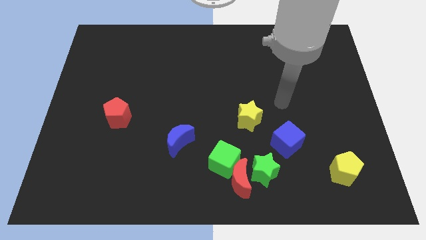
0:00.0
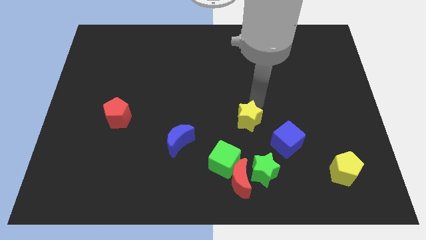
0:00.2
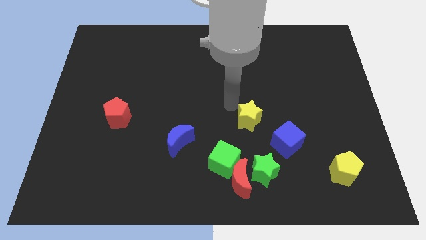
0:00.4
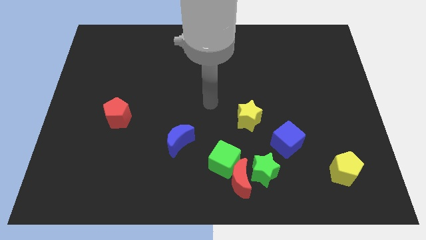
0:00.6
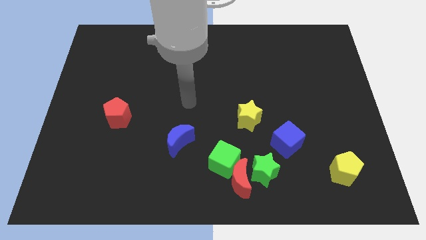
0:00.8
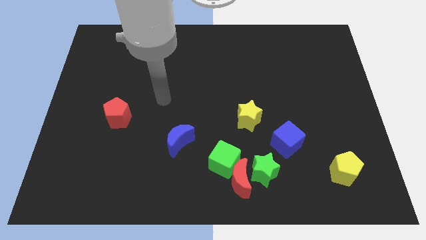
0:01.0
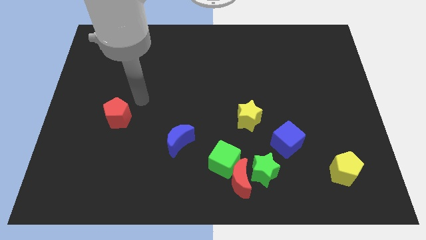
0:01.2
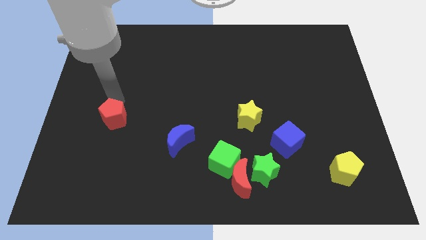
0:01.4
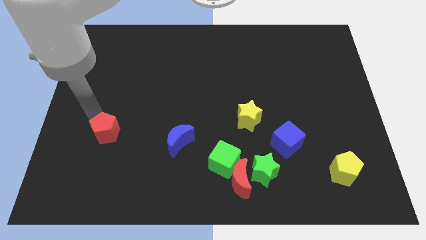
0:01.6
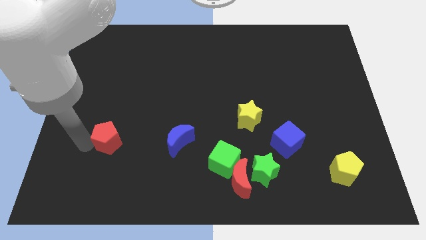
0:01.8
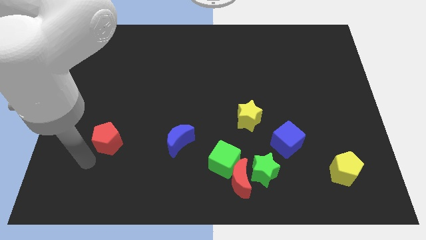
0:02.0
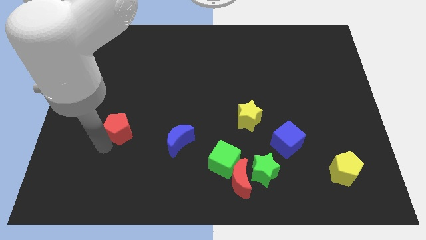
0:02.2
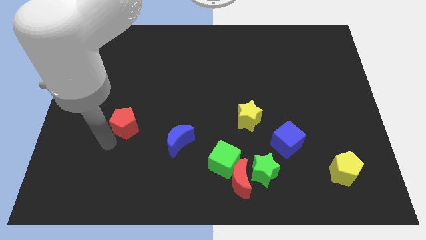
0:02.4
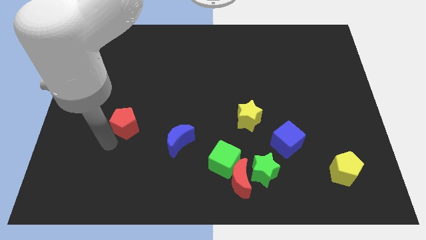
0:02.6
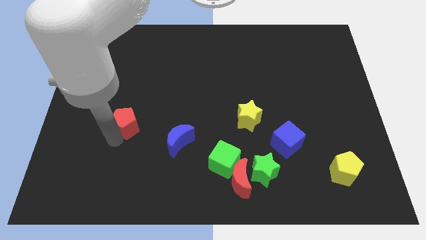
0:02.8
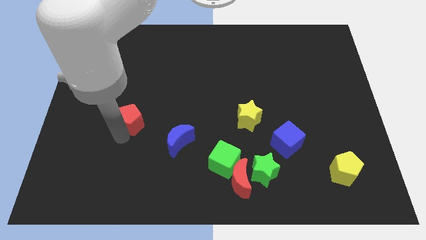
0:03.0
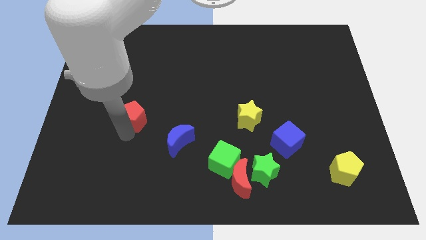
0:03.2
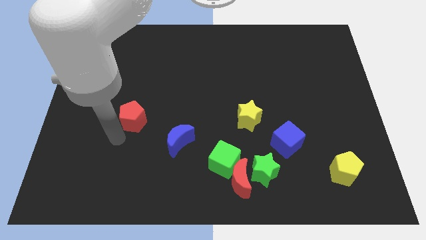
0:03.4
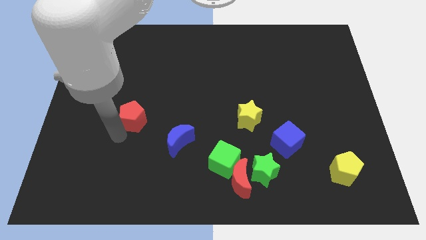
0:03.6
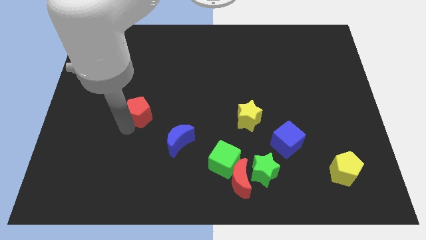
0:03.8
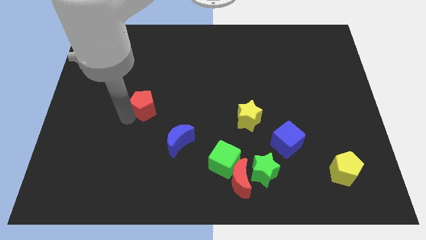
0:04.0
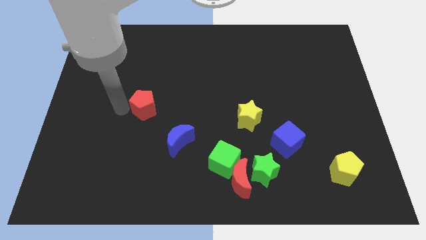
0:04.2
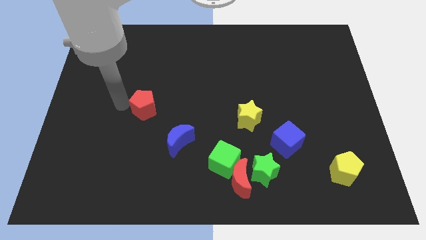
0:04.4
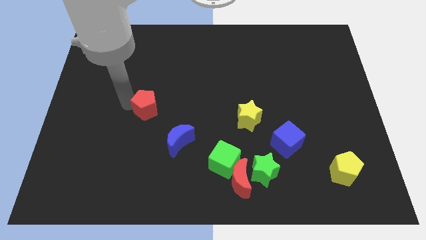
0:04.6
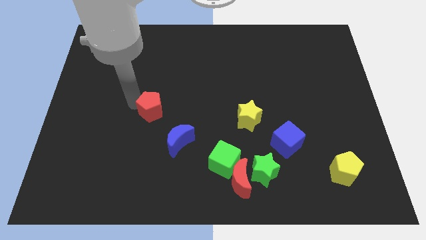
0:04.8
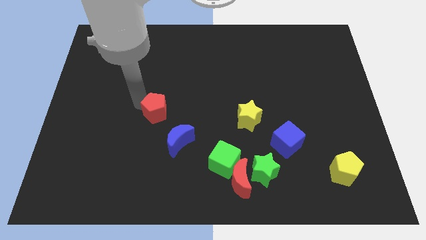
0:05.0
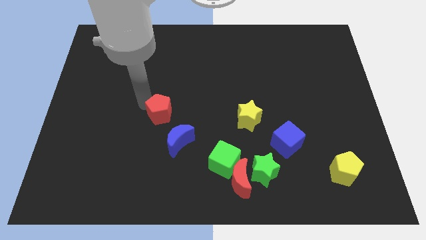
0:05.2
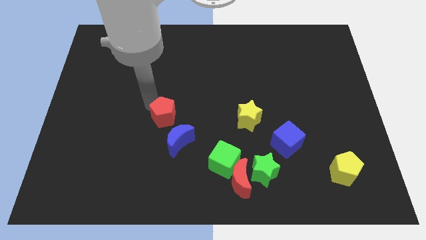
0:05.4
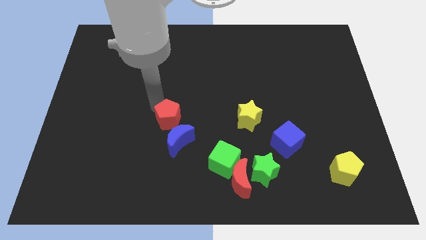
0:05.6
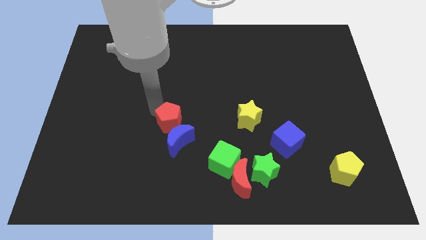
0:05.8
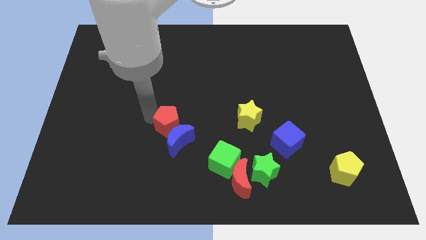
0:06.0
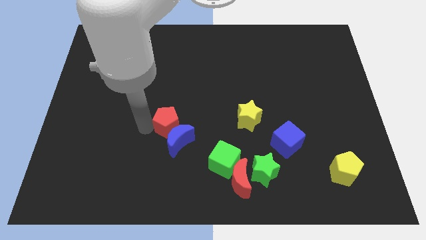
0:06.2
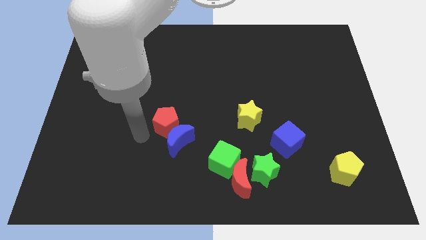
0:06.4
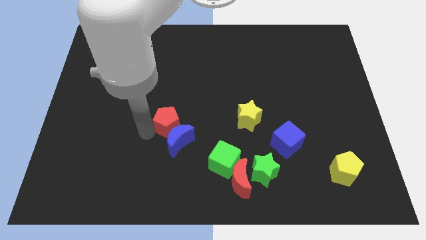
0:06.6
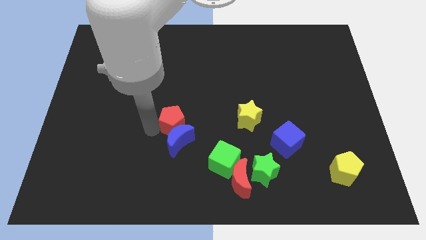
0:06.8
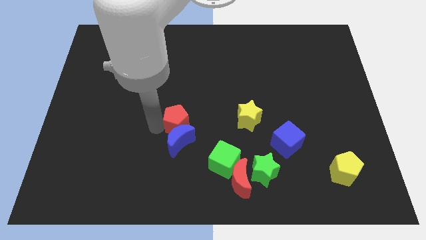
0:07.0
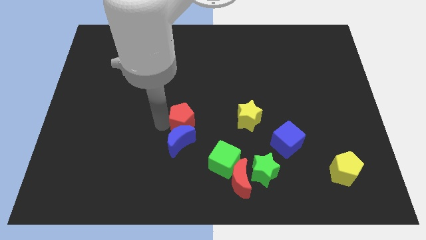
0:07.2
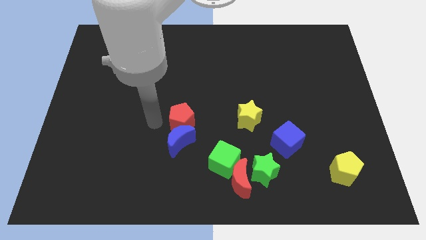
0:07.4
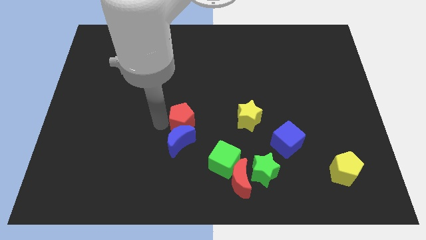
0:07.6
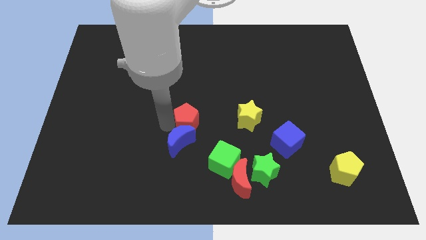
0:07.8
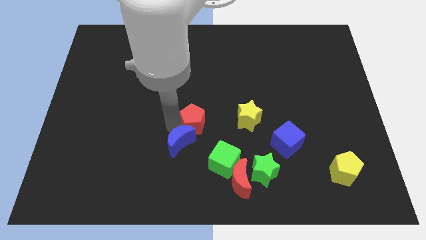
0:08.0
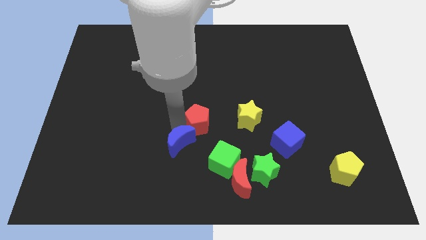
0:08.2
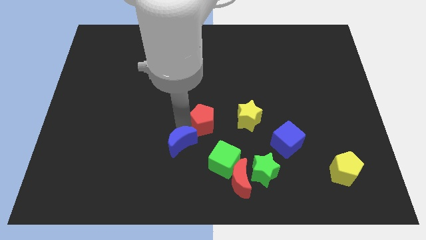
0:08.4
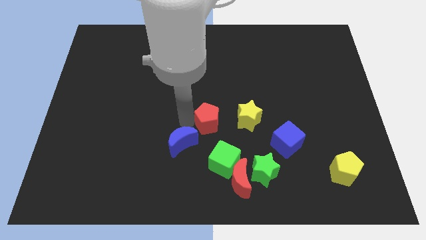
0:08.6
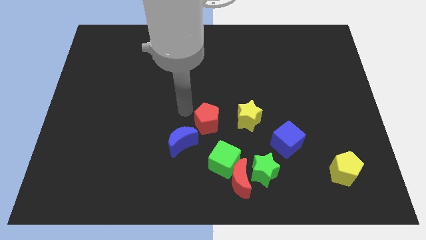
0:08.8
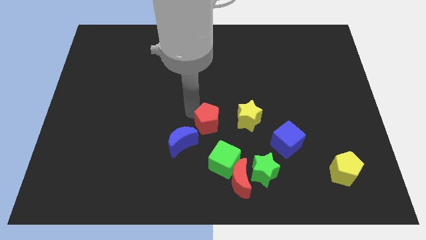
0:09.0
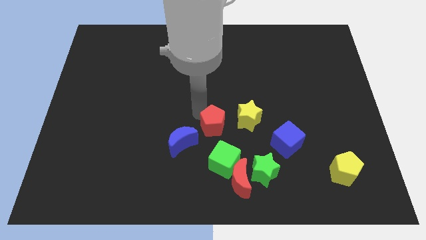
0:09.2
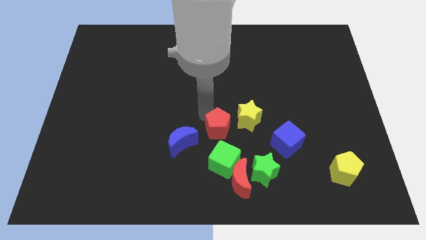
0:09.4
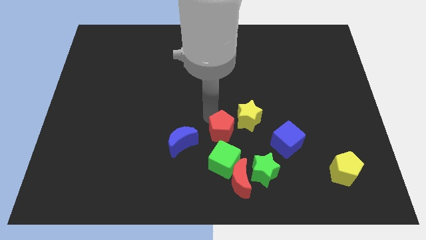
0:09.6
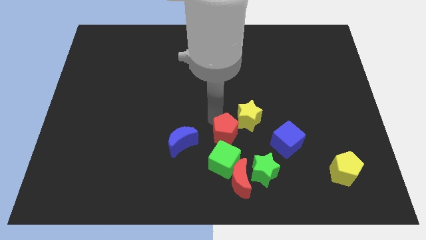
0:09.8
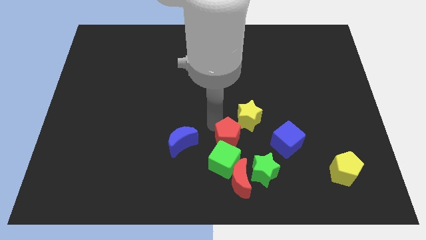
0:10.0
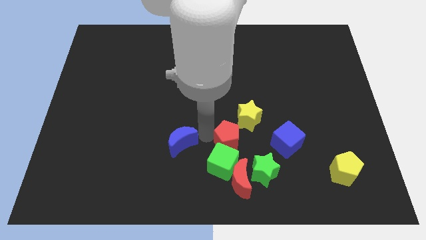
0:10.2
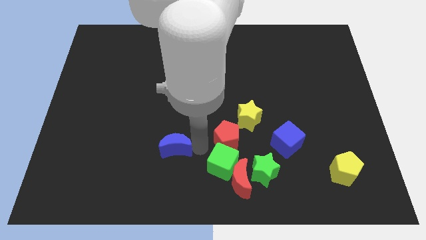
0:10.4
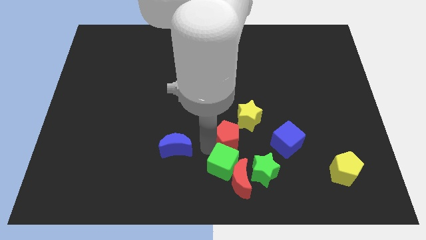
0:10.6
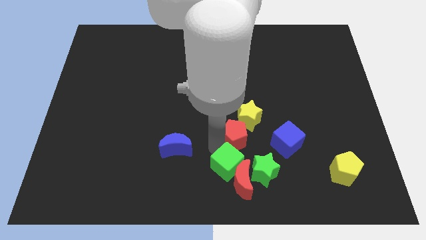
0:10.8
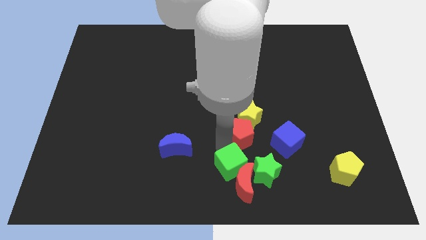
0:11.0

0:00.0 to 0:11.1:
slide the red pentagon to the top of the green star

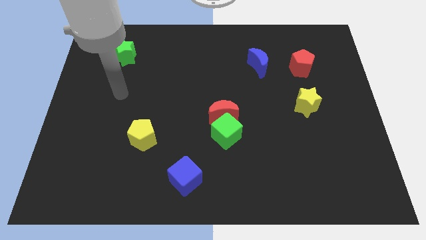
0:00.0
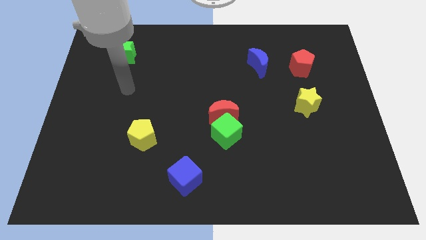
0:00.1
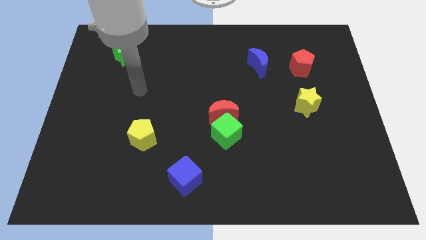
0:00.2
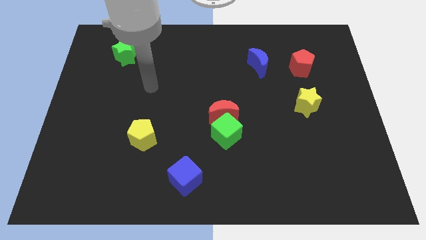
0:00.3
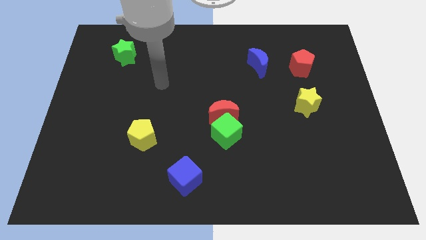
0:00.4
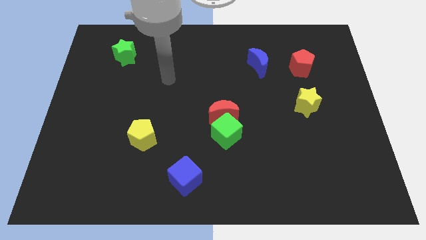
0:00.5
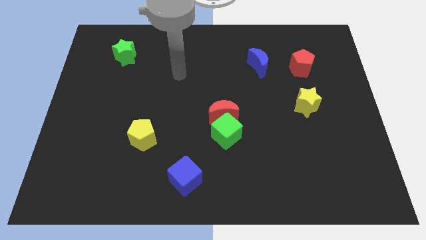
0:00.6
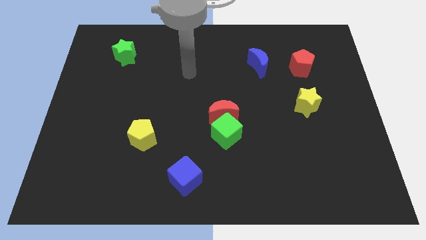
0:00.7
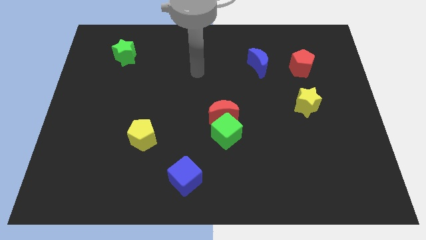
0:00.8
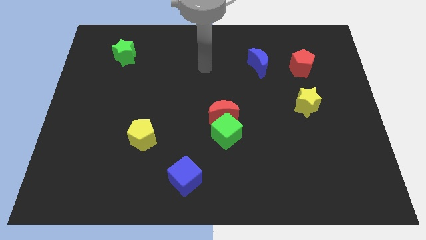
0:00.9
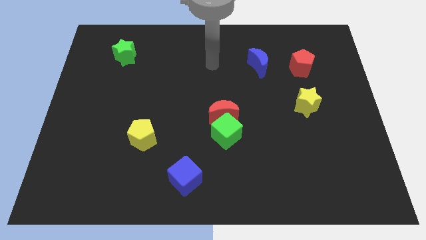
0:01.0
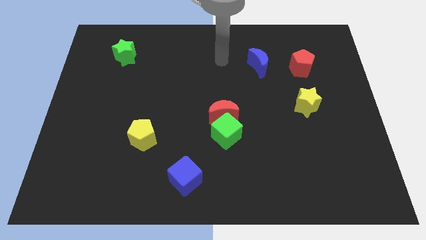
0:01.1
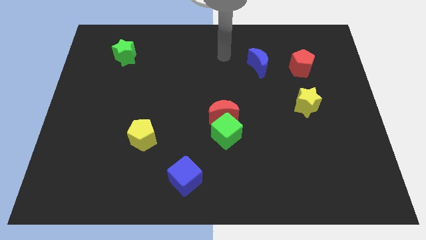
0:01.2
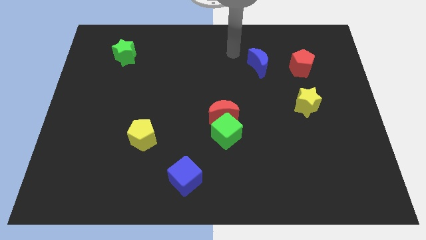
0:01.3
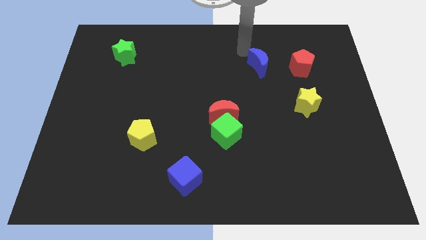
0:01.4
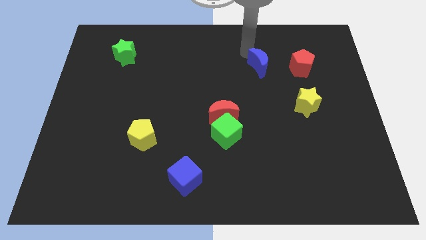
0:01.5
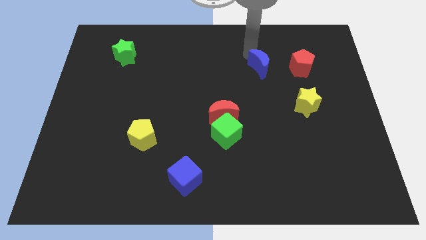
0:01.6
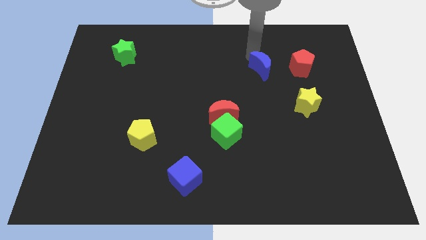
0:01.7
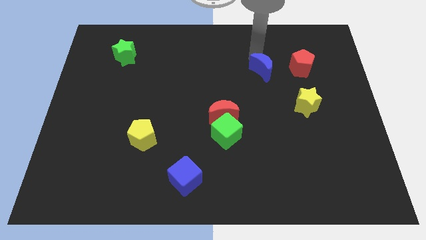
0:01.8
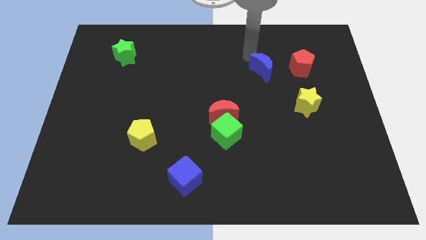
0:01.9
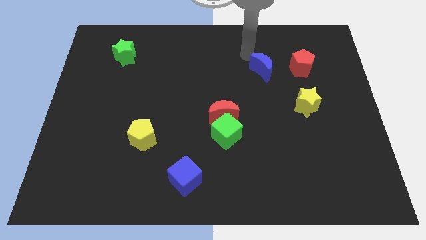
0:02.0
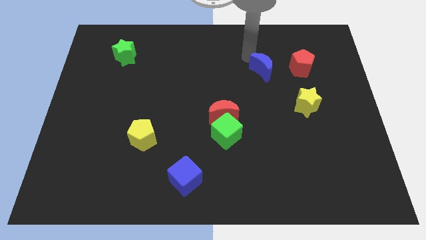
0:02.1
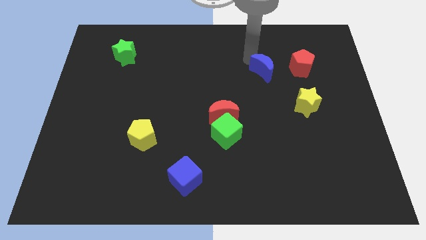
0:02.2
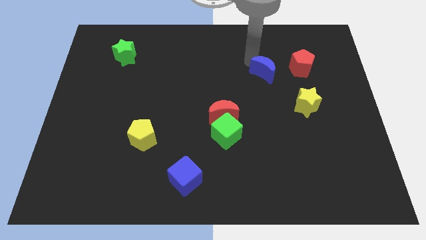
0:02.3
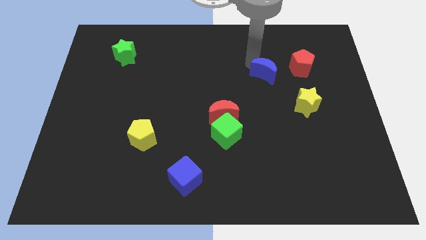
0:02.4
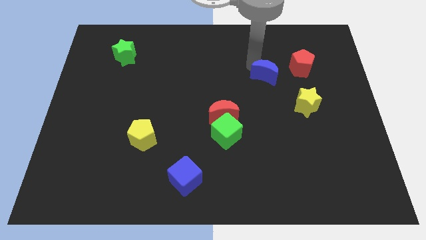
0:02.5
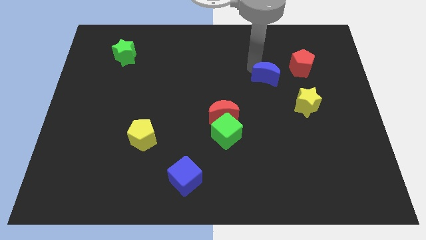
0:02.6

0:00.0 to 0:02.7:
push the blue moon to the top left side of the yellow star
